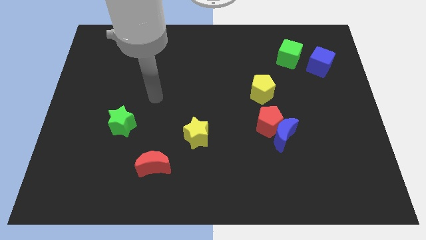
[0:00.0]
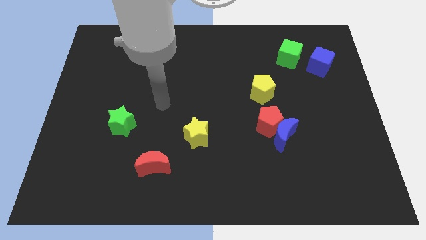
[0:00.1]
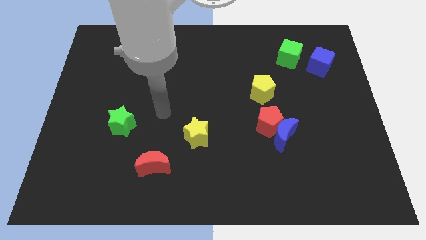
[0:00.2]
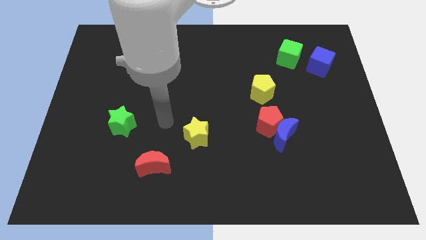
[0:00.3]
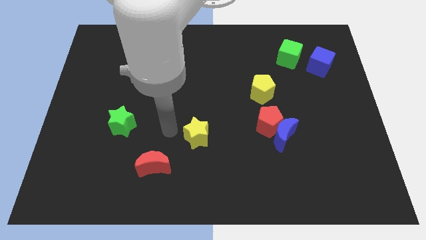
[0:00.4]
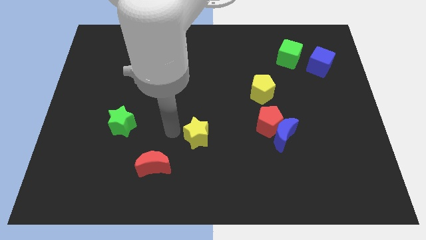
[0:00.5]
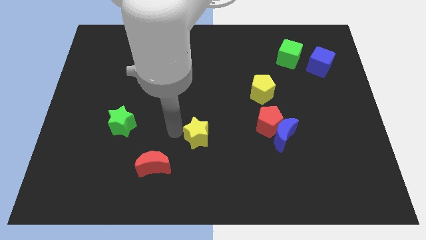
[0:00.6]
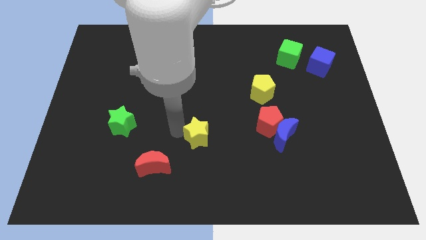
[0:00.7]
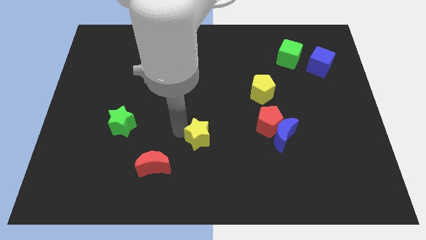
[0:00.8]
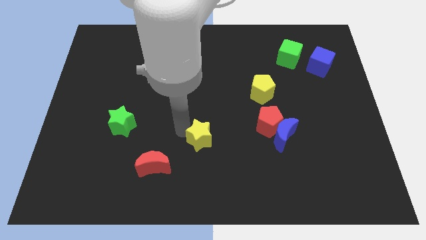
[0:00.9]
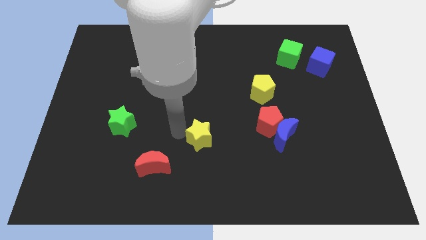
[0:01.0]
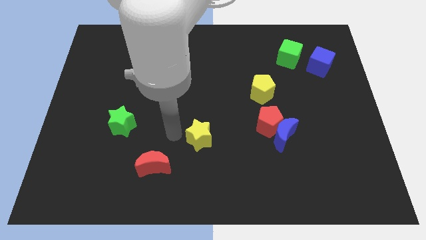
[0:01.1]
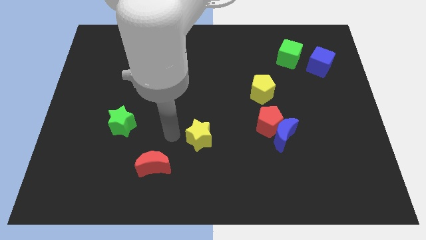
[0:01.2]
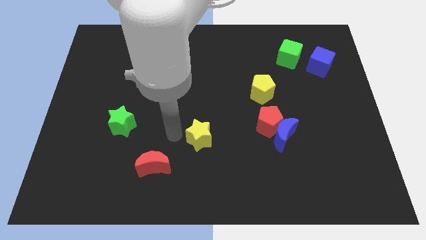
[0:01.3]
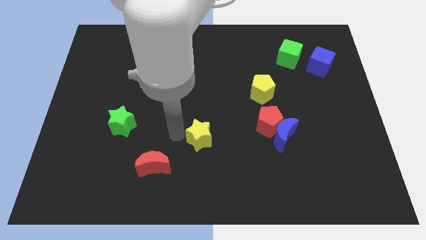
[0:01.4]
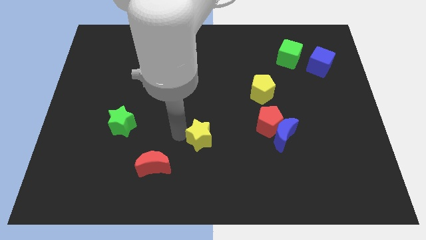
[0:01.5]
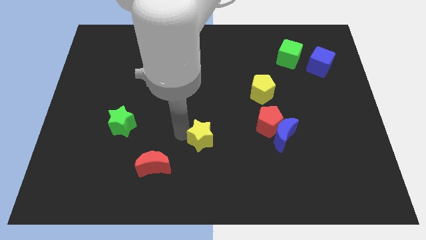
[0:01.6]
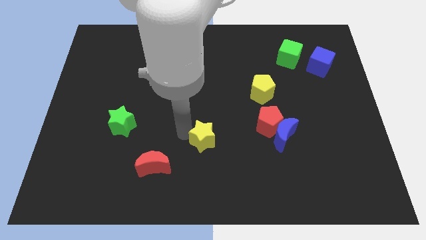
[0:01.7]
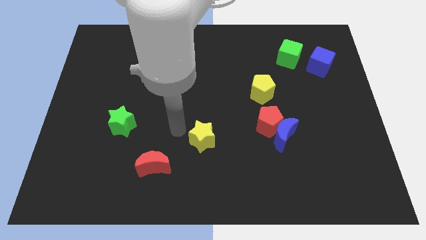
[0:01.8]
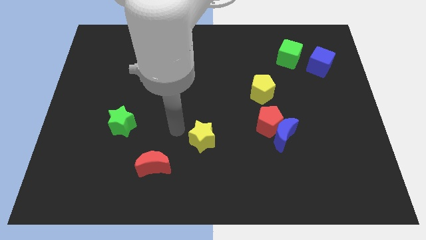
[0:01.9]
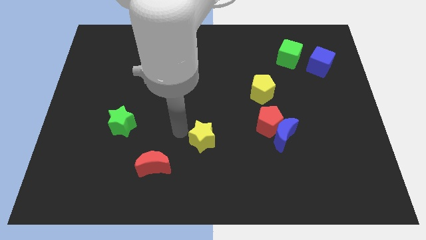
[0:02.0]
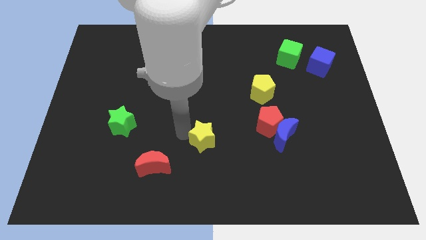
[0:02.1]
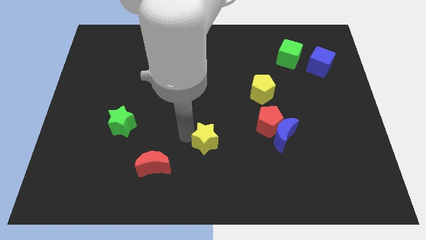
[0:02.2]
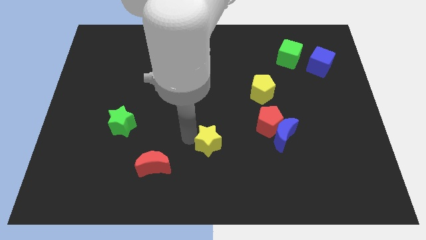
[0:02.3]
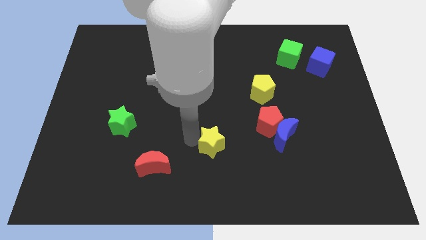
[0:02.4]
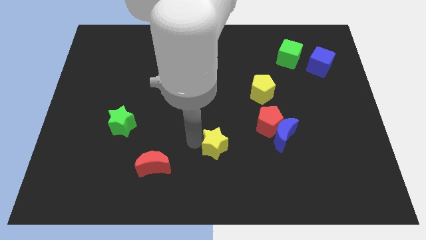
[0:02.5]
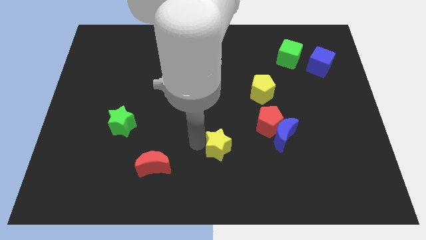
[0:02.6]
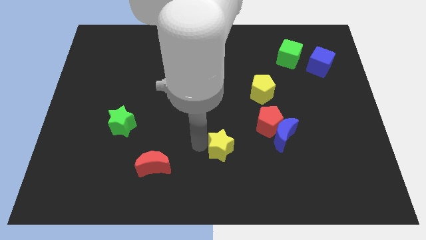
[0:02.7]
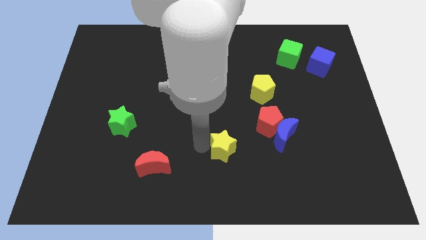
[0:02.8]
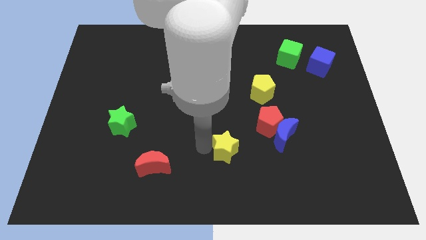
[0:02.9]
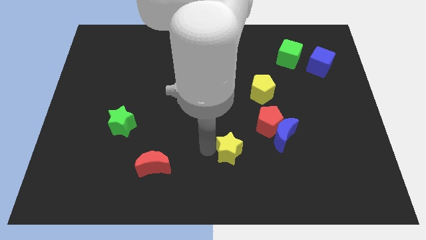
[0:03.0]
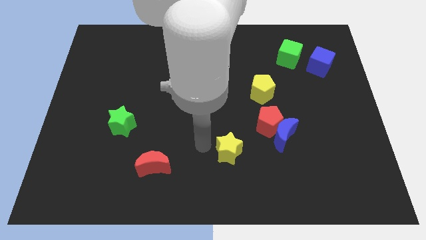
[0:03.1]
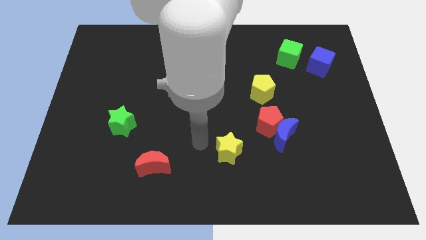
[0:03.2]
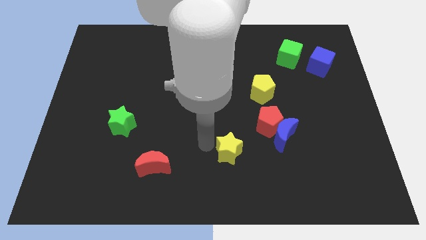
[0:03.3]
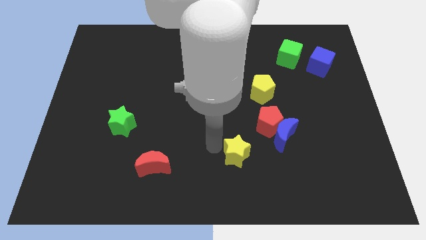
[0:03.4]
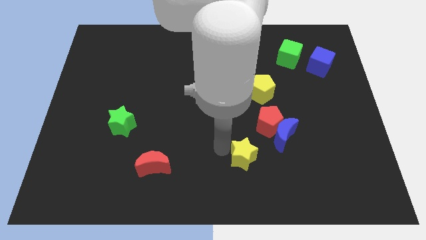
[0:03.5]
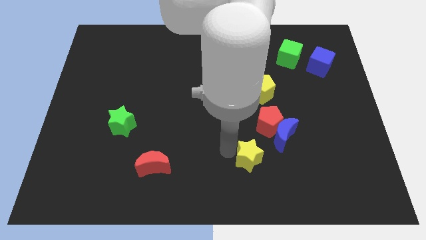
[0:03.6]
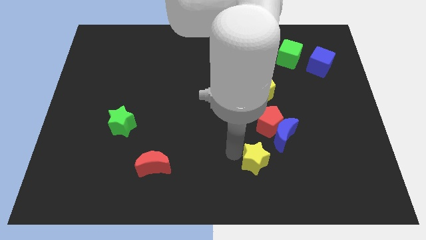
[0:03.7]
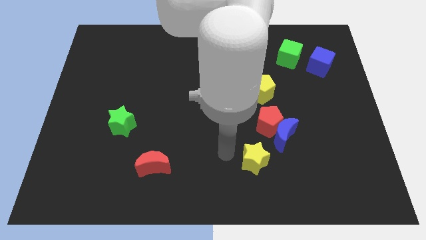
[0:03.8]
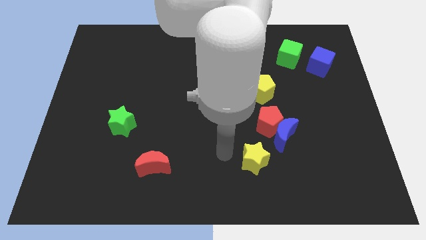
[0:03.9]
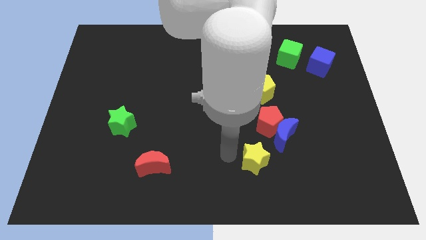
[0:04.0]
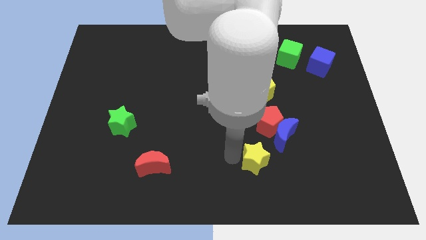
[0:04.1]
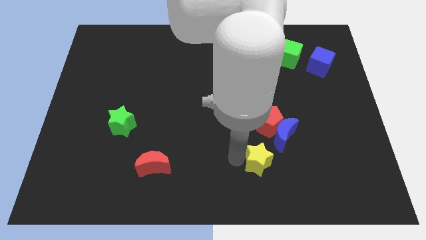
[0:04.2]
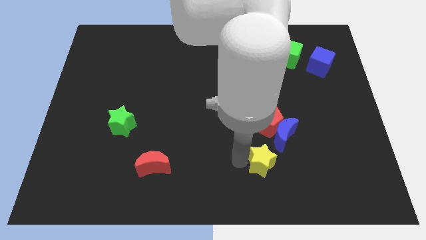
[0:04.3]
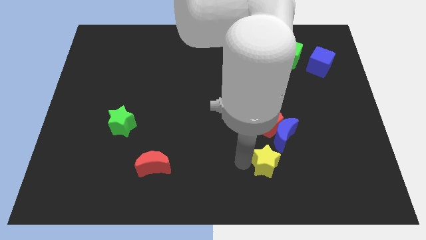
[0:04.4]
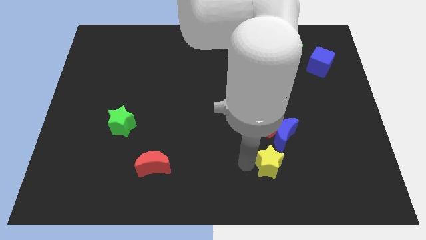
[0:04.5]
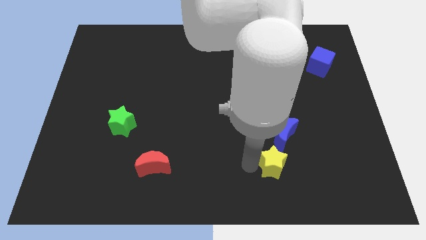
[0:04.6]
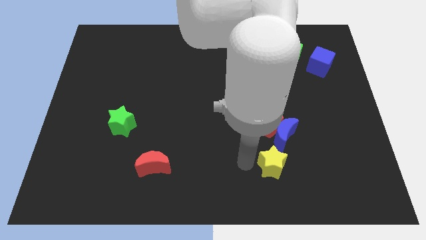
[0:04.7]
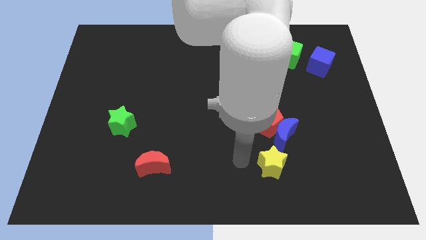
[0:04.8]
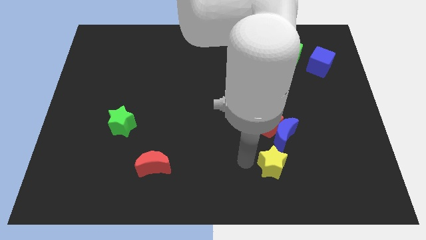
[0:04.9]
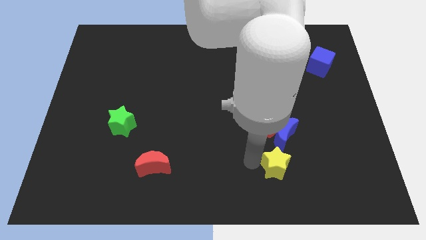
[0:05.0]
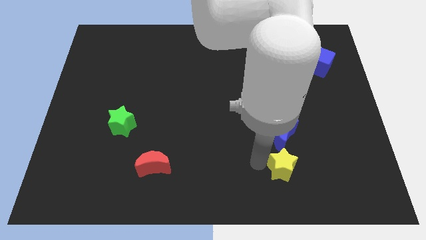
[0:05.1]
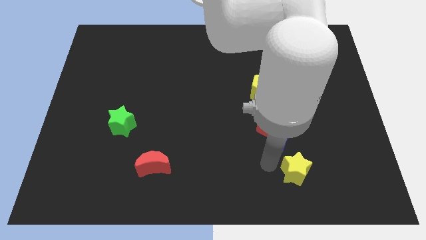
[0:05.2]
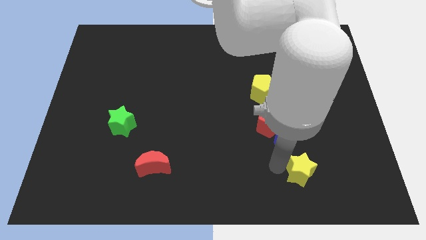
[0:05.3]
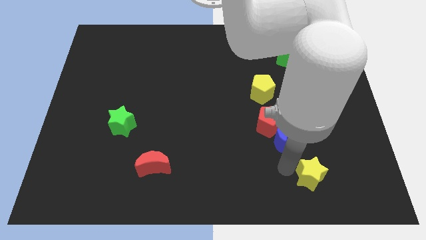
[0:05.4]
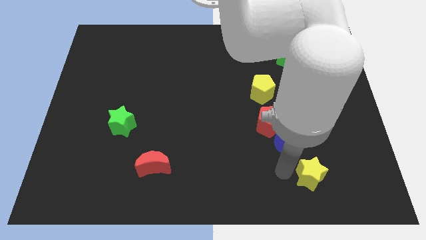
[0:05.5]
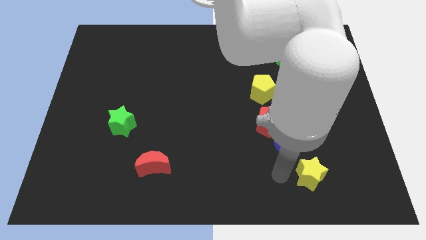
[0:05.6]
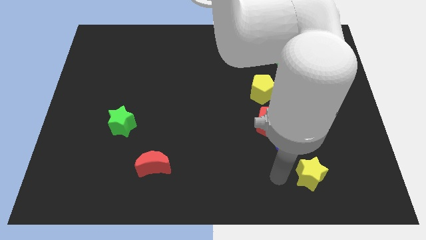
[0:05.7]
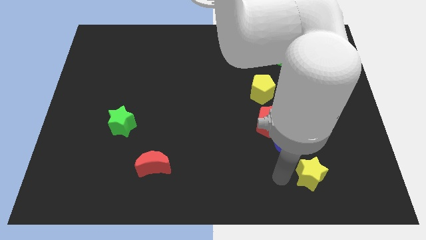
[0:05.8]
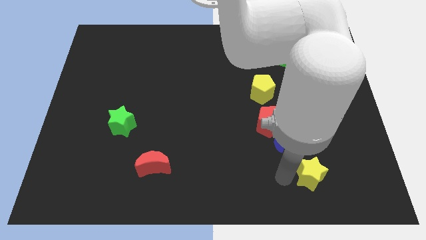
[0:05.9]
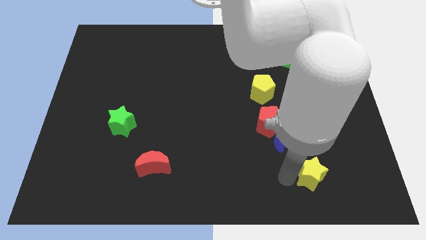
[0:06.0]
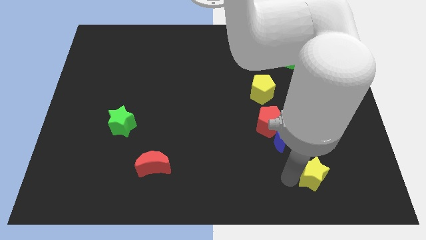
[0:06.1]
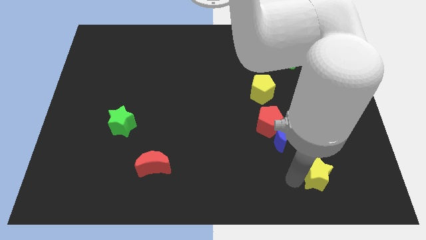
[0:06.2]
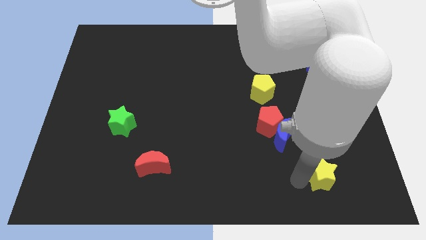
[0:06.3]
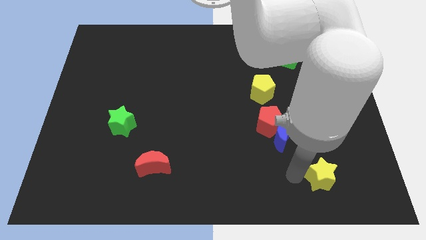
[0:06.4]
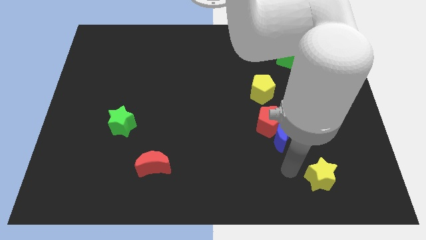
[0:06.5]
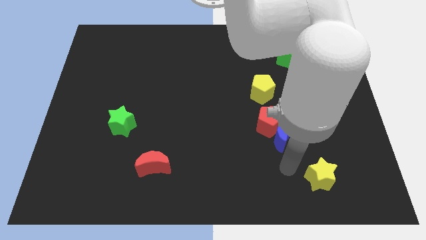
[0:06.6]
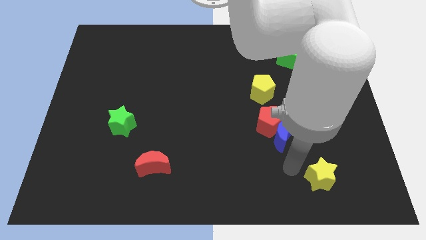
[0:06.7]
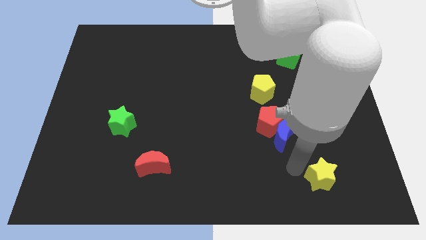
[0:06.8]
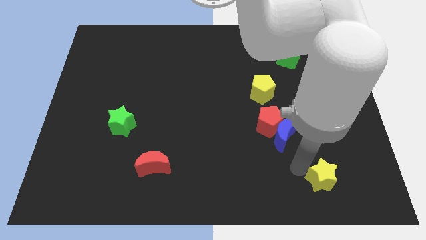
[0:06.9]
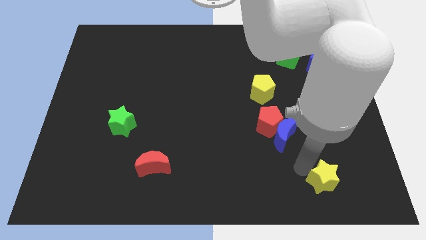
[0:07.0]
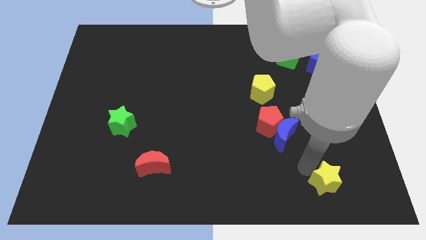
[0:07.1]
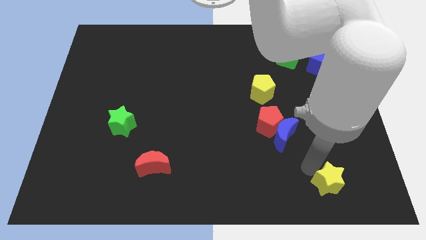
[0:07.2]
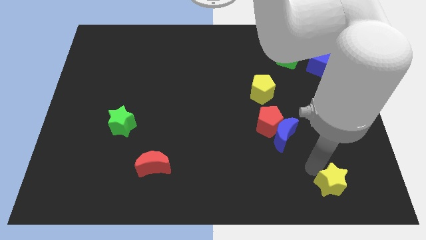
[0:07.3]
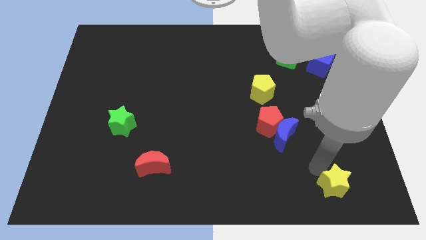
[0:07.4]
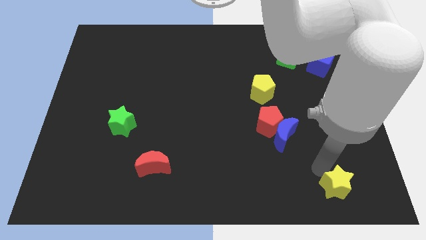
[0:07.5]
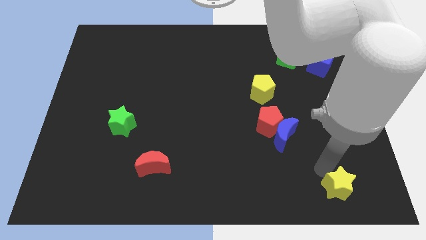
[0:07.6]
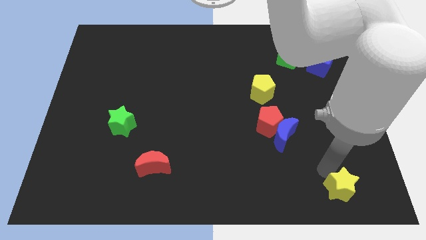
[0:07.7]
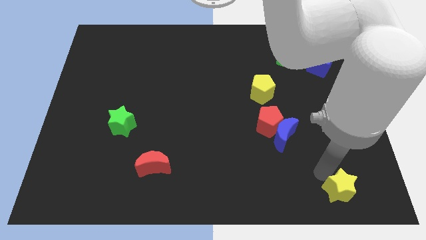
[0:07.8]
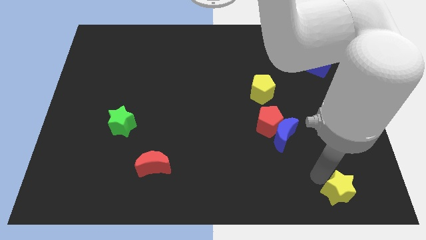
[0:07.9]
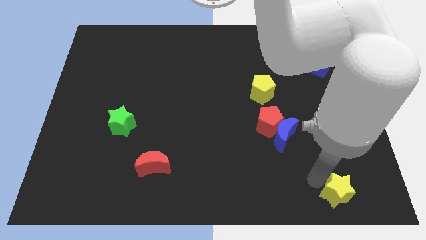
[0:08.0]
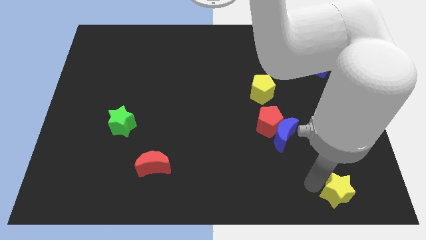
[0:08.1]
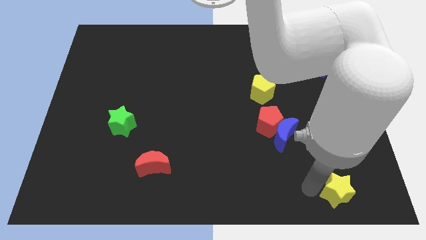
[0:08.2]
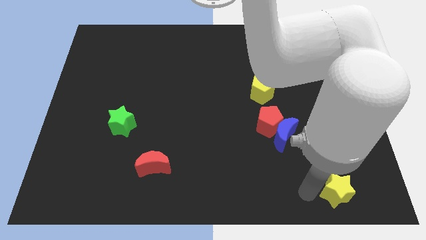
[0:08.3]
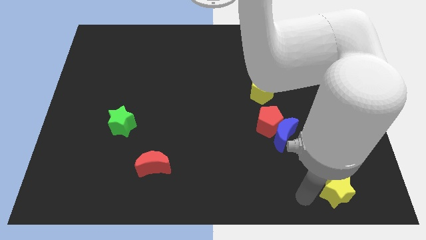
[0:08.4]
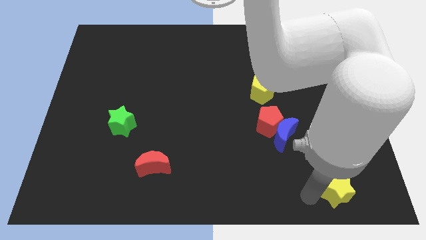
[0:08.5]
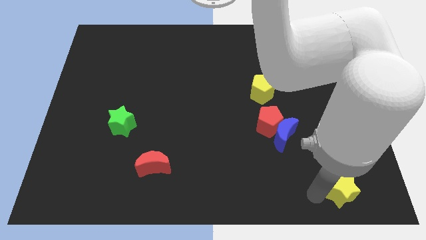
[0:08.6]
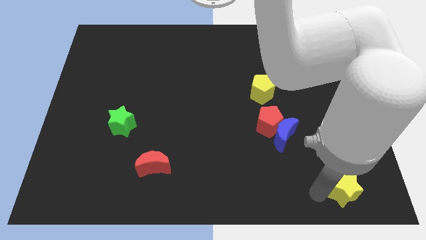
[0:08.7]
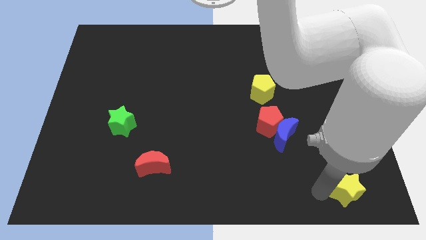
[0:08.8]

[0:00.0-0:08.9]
push the yellow star to the bottom right
